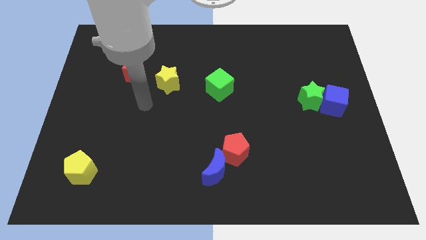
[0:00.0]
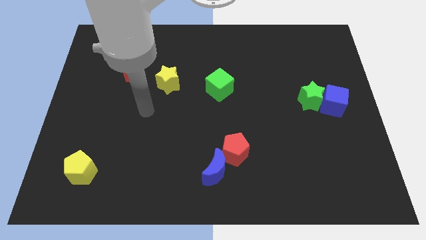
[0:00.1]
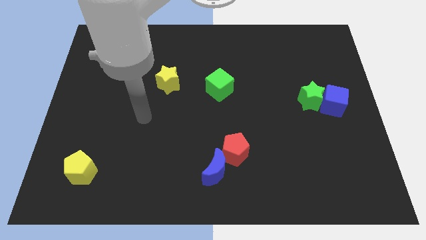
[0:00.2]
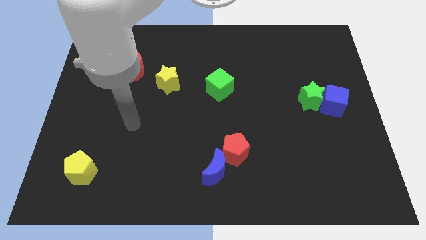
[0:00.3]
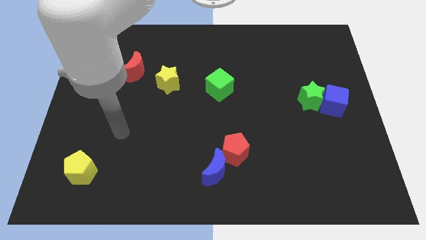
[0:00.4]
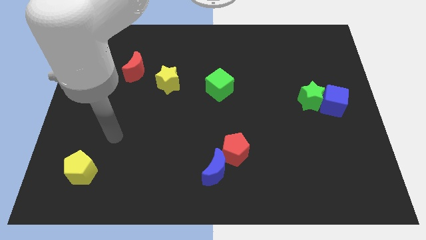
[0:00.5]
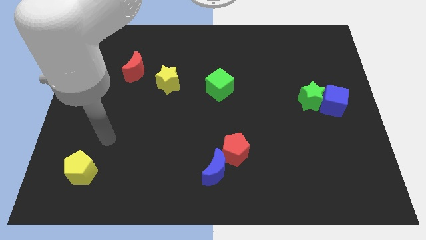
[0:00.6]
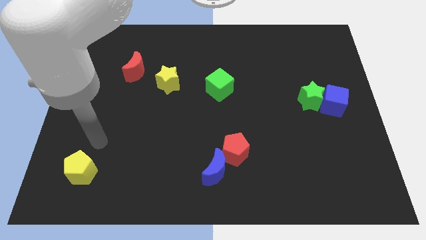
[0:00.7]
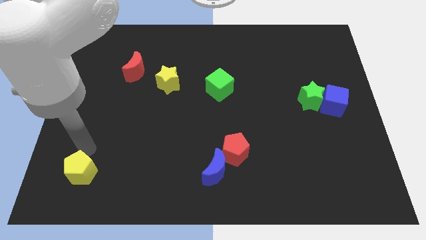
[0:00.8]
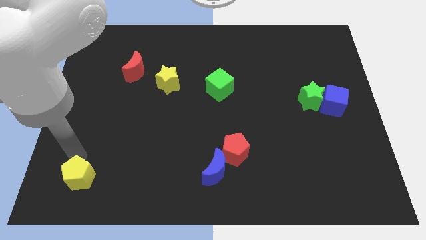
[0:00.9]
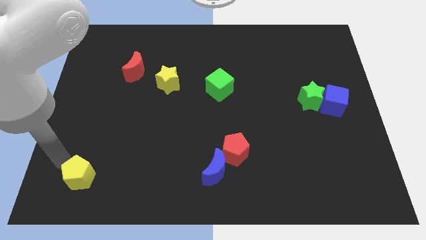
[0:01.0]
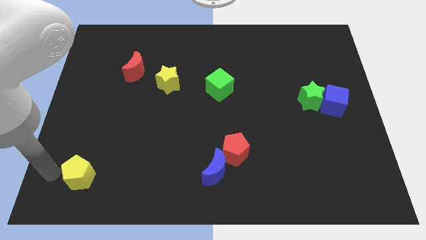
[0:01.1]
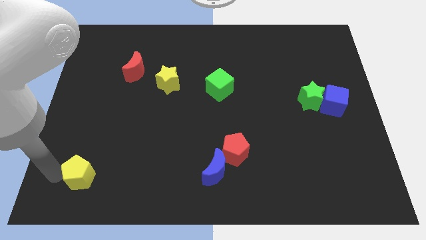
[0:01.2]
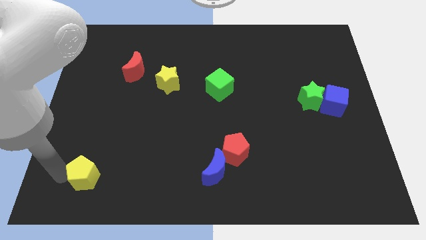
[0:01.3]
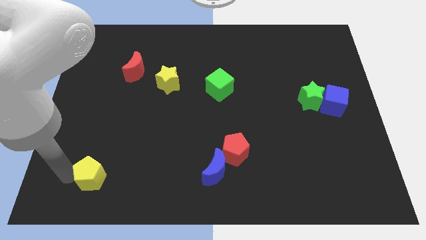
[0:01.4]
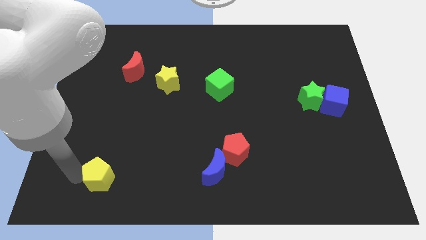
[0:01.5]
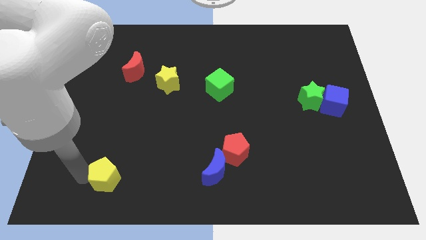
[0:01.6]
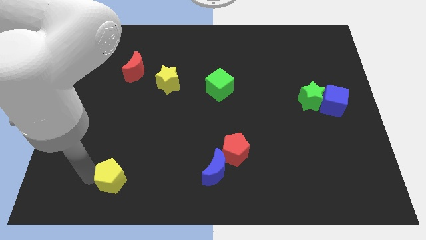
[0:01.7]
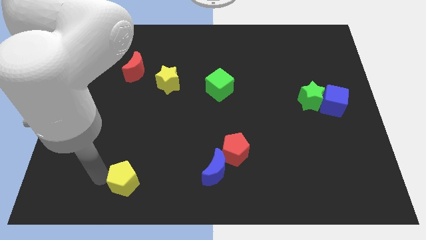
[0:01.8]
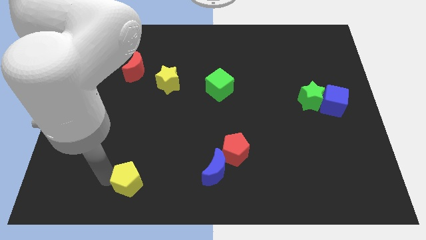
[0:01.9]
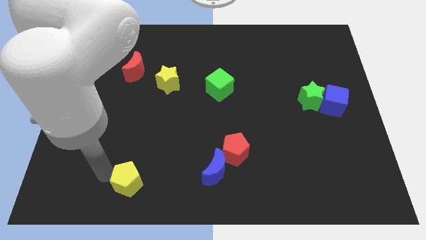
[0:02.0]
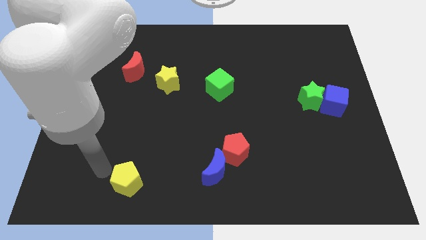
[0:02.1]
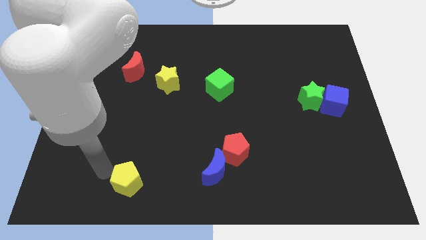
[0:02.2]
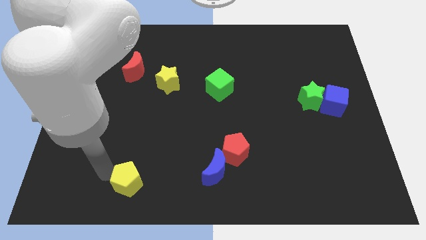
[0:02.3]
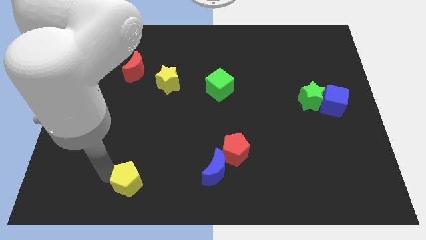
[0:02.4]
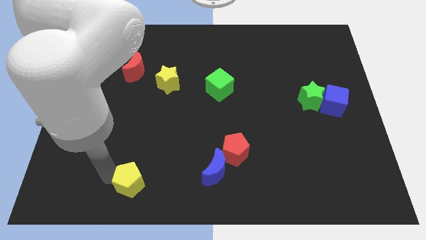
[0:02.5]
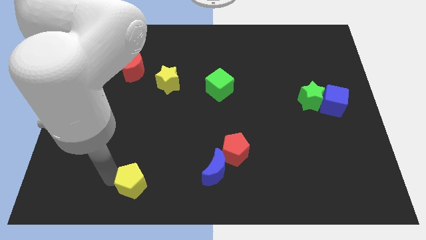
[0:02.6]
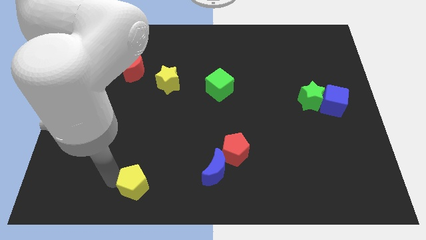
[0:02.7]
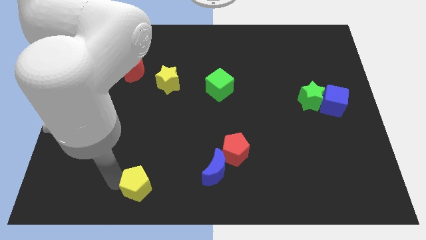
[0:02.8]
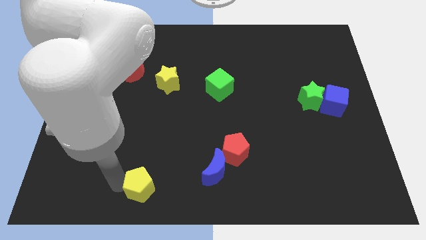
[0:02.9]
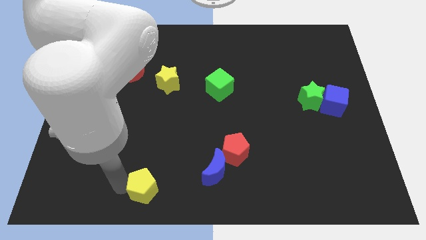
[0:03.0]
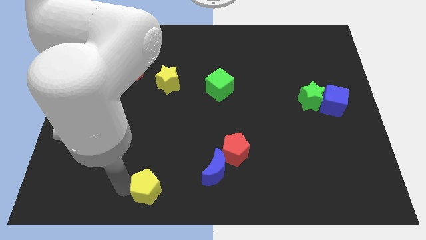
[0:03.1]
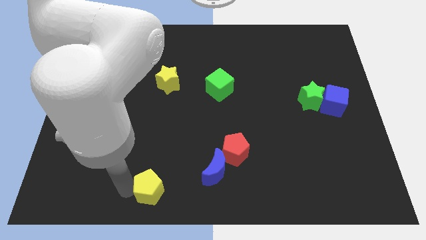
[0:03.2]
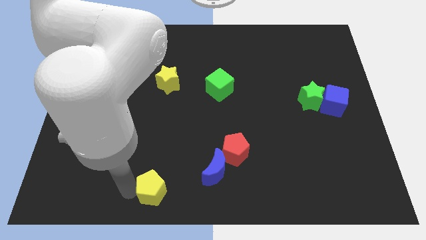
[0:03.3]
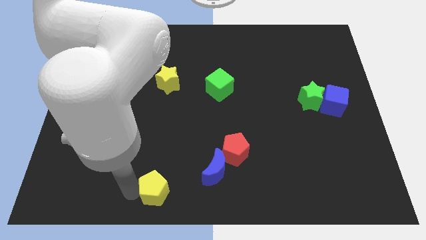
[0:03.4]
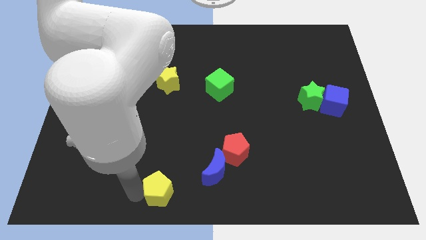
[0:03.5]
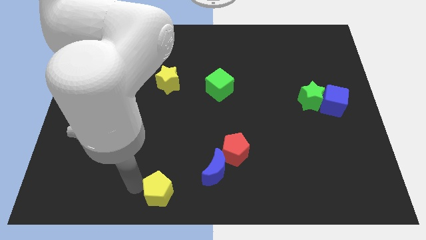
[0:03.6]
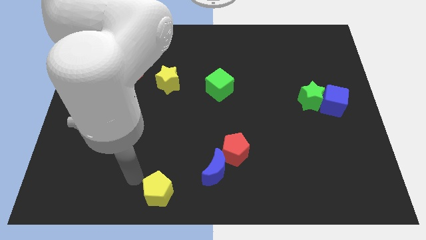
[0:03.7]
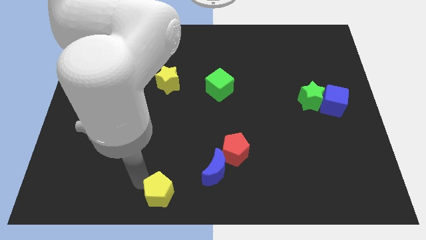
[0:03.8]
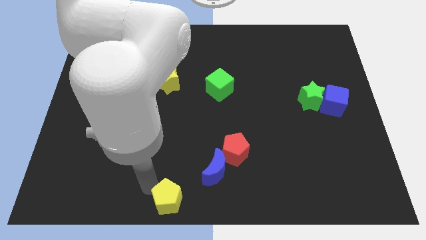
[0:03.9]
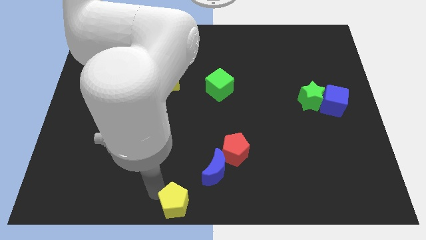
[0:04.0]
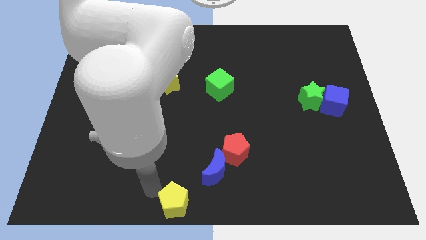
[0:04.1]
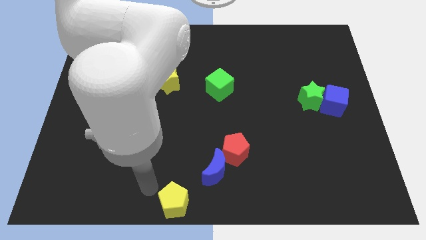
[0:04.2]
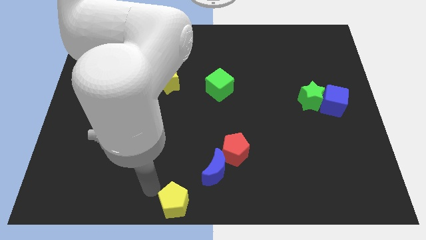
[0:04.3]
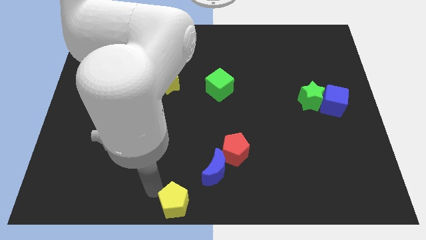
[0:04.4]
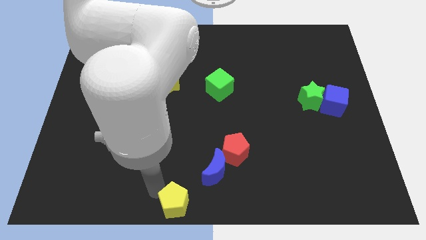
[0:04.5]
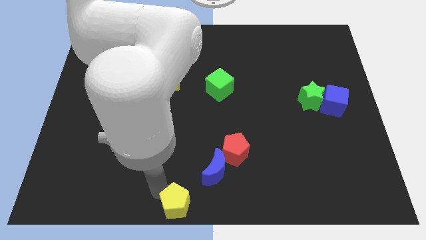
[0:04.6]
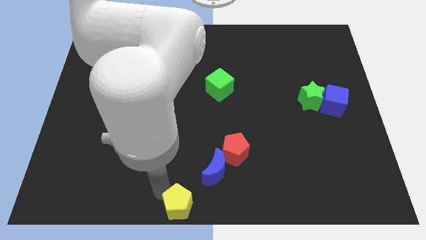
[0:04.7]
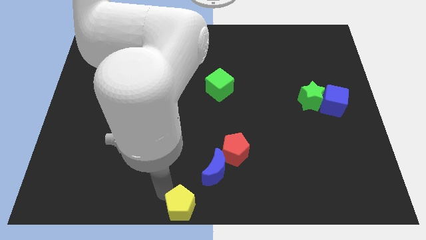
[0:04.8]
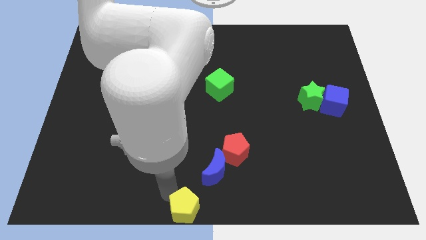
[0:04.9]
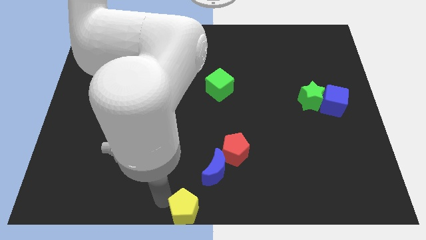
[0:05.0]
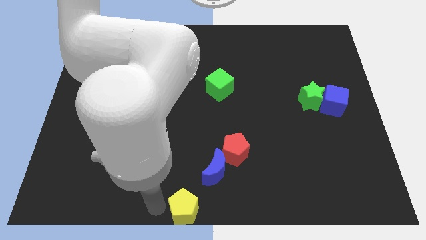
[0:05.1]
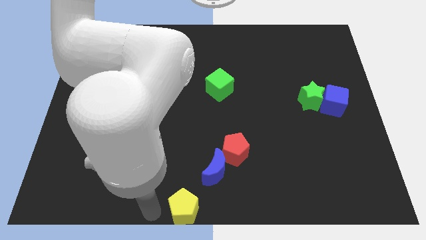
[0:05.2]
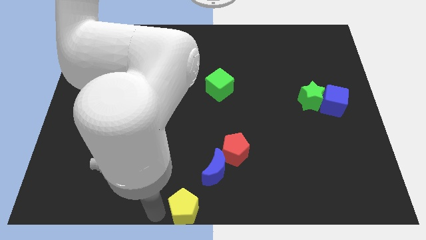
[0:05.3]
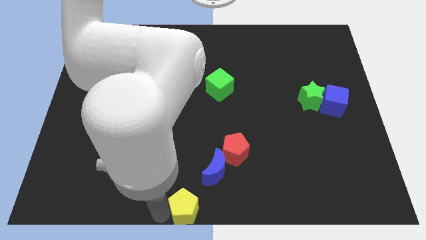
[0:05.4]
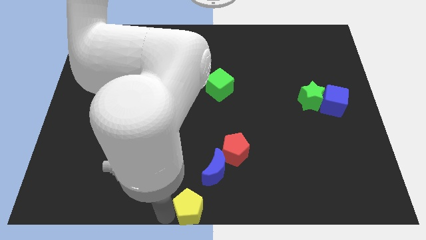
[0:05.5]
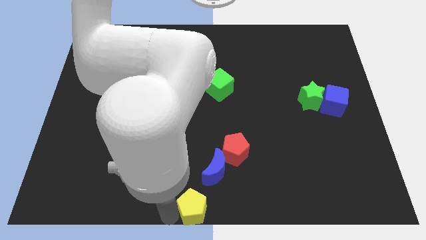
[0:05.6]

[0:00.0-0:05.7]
move the yellow pentagon to the right

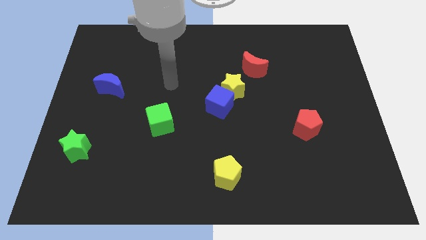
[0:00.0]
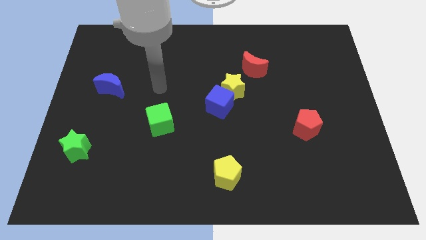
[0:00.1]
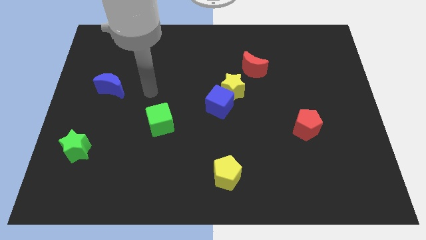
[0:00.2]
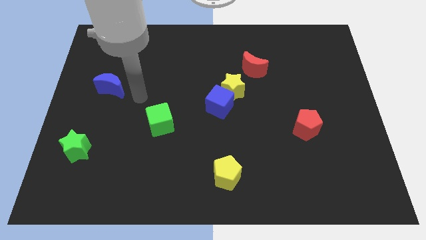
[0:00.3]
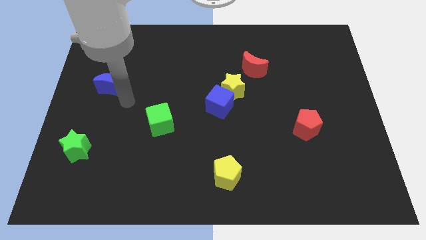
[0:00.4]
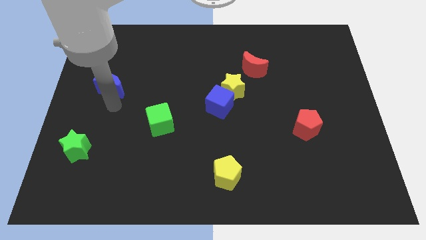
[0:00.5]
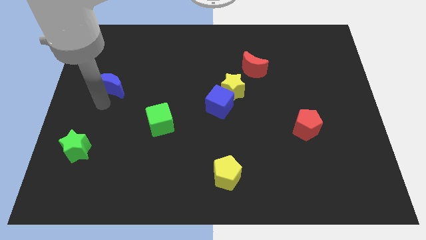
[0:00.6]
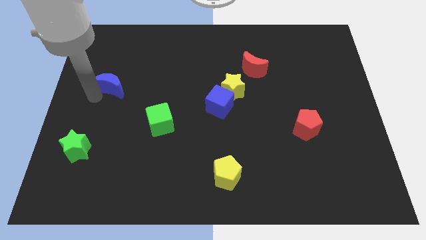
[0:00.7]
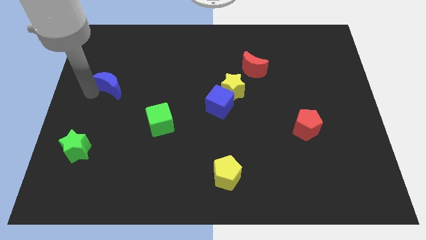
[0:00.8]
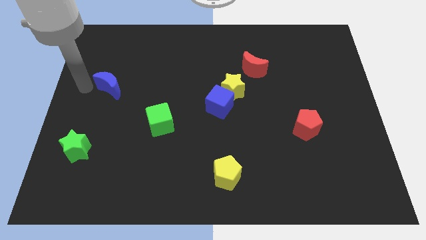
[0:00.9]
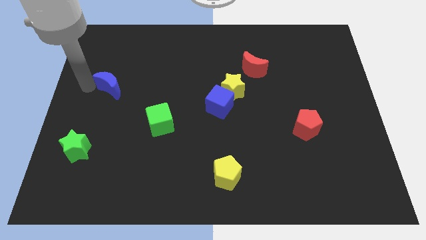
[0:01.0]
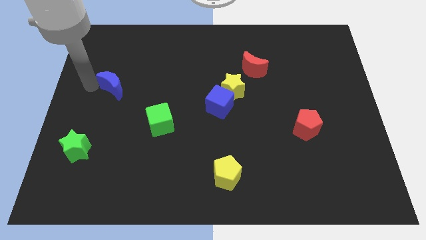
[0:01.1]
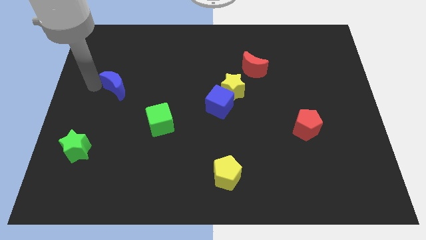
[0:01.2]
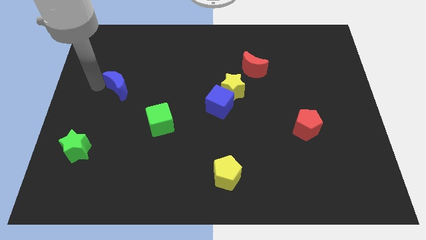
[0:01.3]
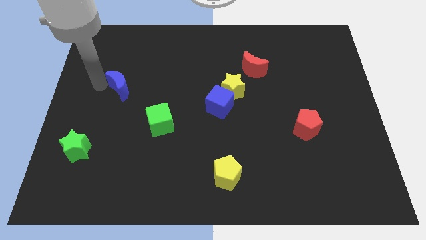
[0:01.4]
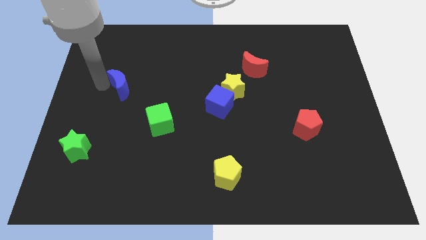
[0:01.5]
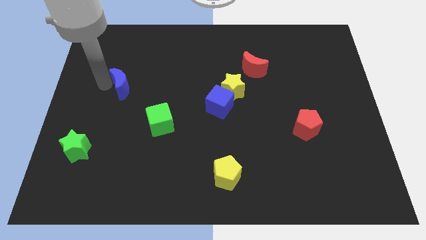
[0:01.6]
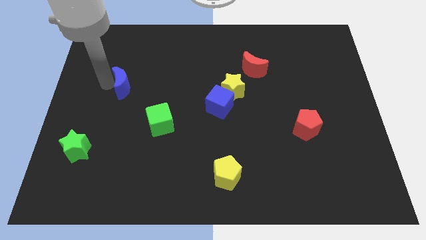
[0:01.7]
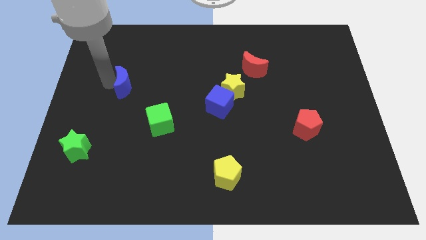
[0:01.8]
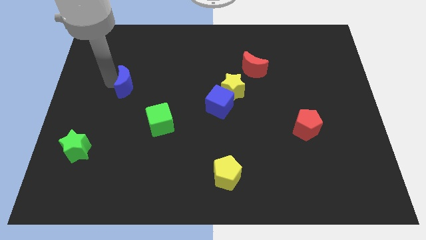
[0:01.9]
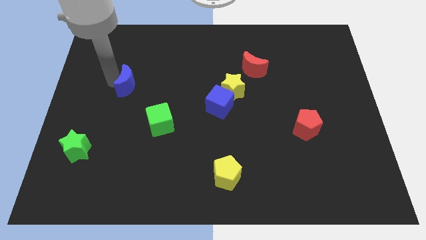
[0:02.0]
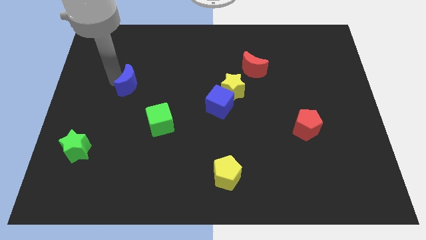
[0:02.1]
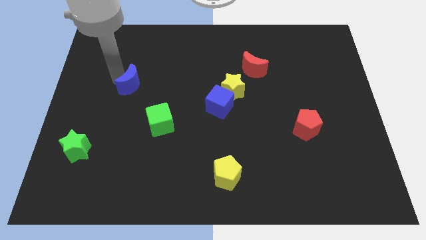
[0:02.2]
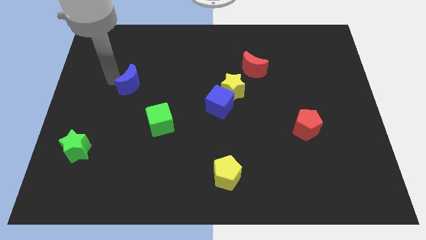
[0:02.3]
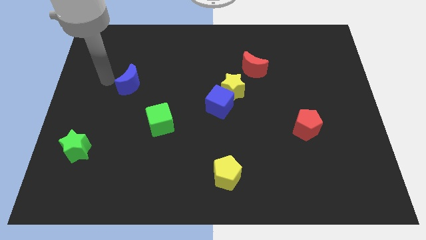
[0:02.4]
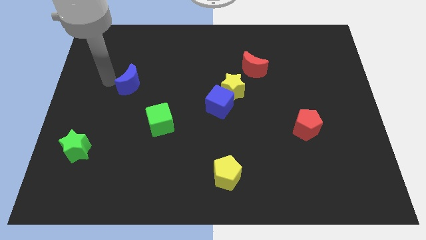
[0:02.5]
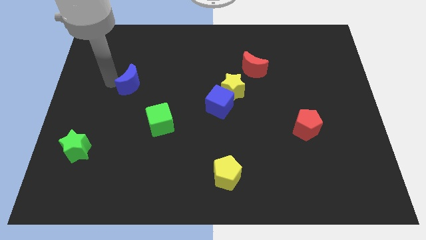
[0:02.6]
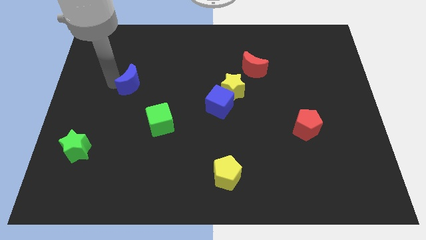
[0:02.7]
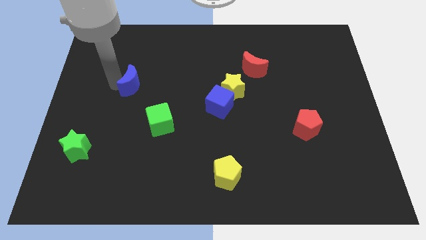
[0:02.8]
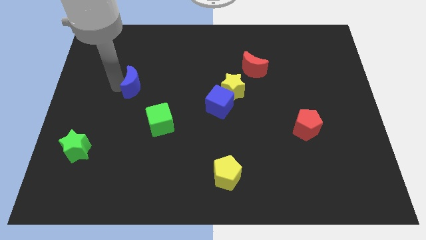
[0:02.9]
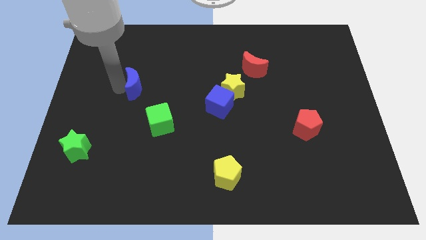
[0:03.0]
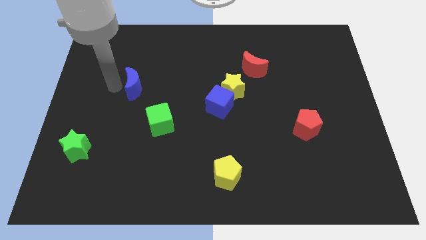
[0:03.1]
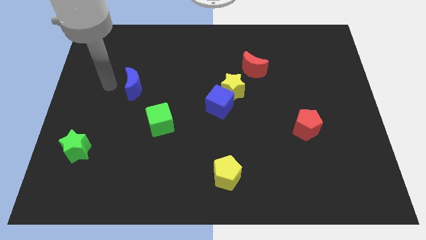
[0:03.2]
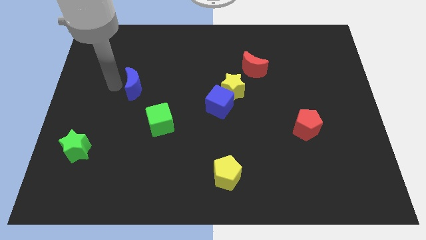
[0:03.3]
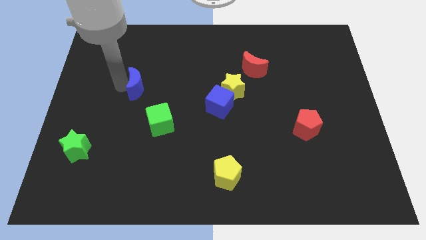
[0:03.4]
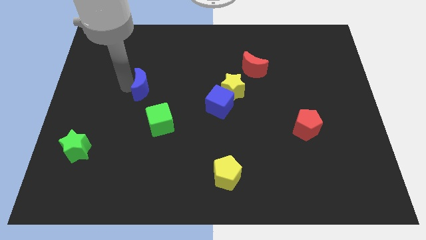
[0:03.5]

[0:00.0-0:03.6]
move the blue moon slightly right
